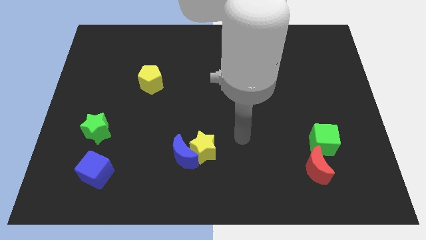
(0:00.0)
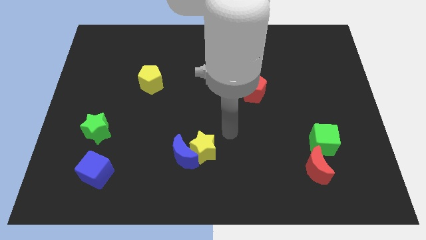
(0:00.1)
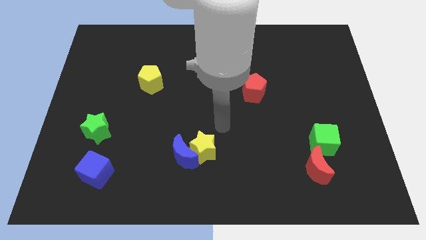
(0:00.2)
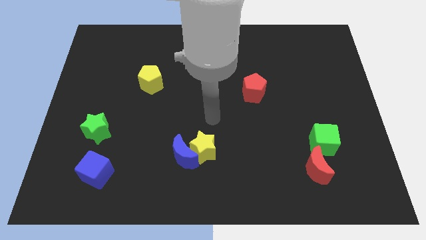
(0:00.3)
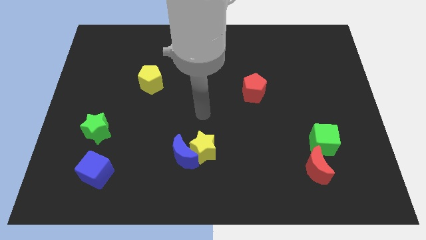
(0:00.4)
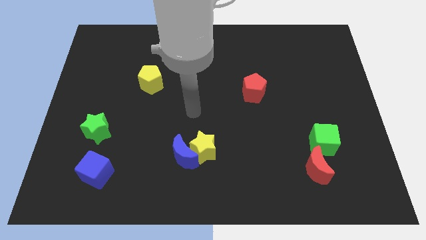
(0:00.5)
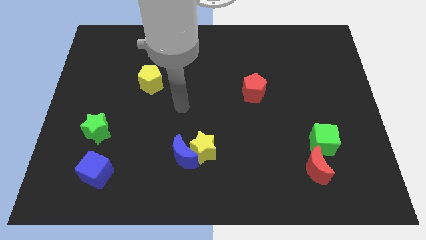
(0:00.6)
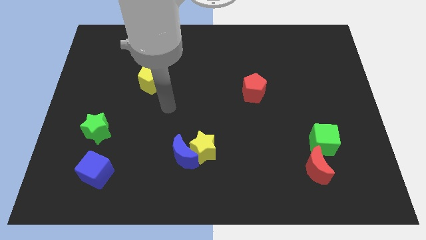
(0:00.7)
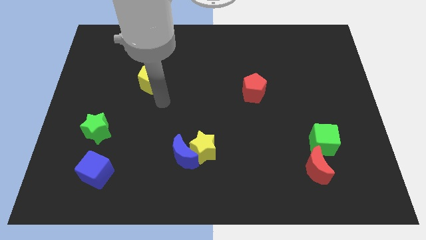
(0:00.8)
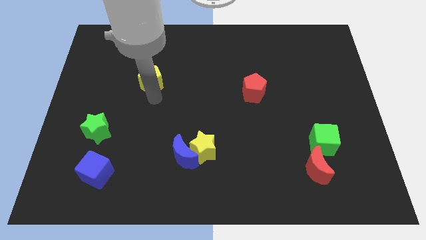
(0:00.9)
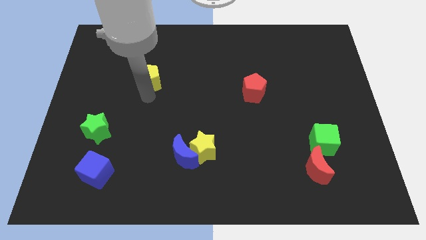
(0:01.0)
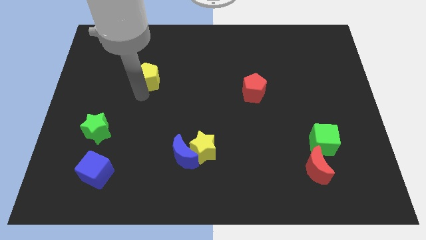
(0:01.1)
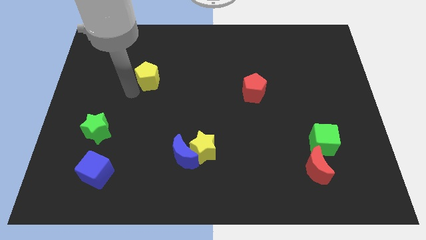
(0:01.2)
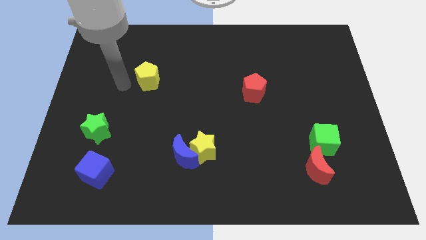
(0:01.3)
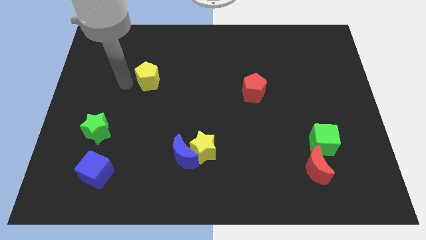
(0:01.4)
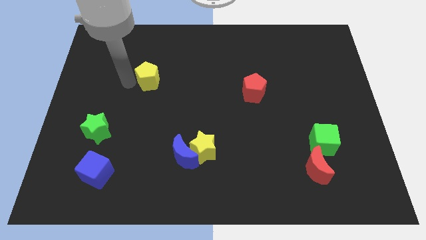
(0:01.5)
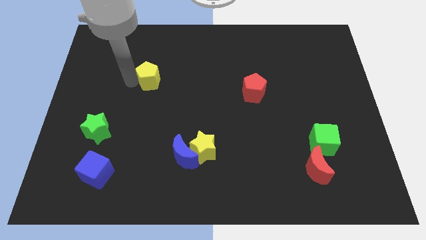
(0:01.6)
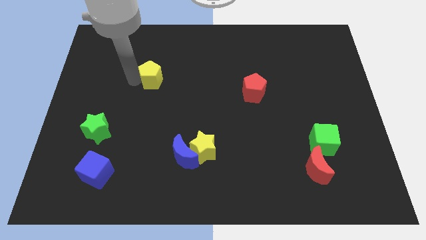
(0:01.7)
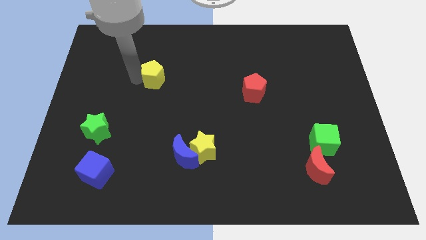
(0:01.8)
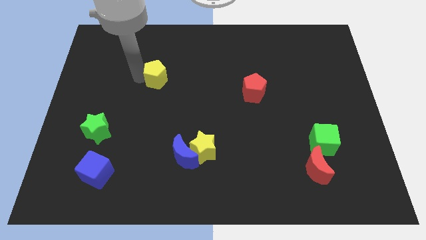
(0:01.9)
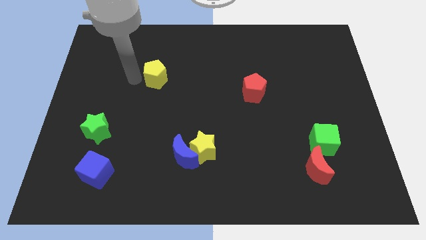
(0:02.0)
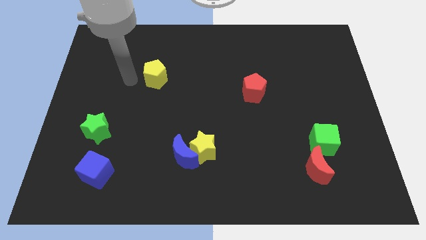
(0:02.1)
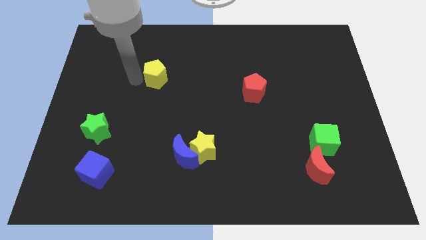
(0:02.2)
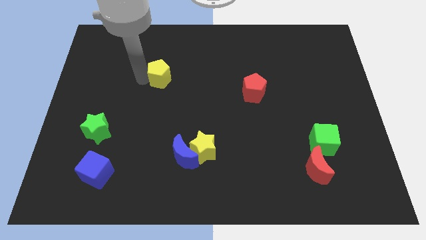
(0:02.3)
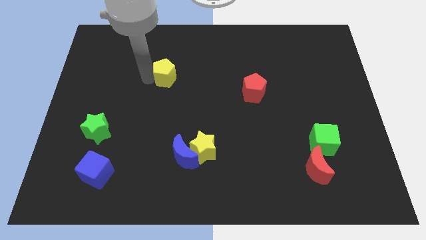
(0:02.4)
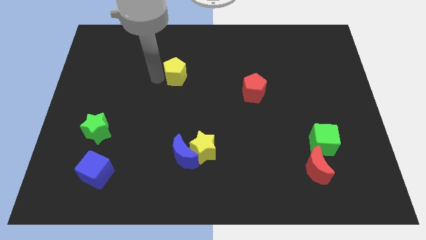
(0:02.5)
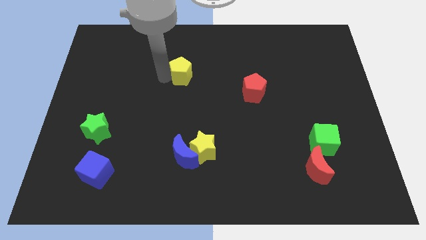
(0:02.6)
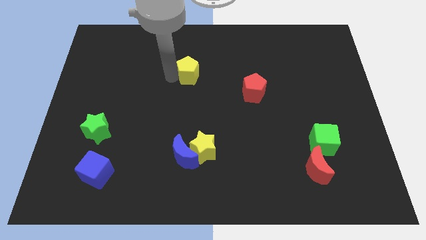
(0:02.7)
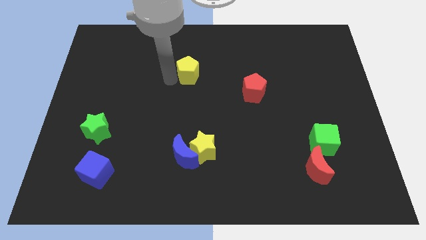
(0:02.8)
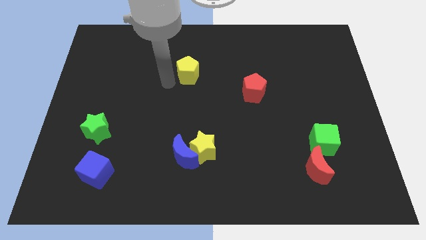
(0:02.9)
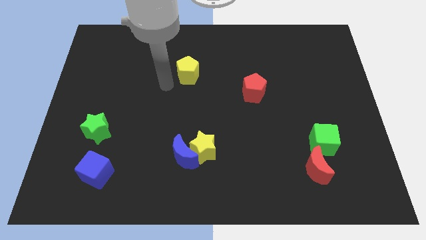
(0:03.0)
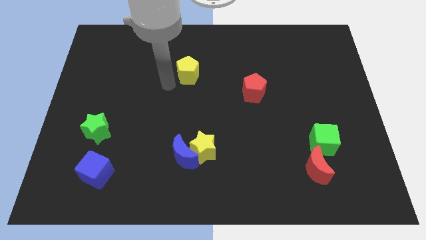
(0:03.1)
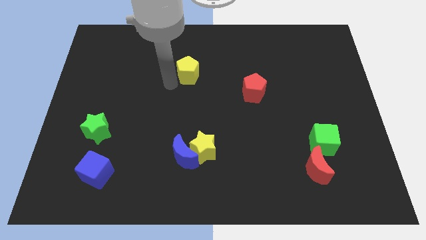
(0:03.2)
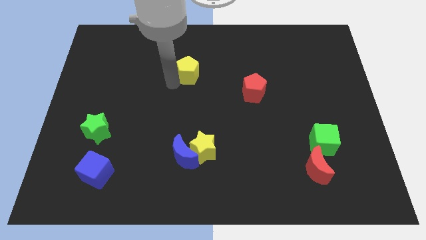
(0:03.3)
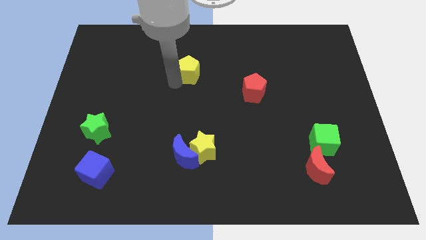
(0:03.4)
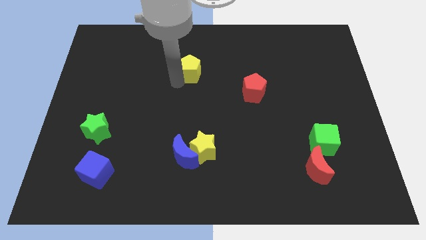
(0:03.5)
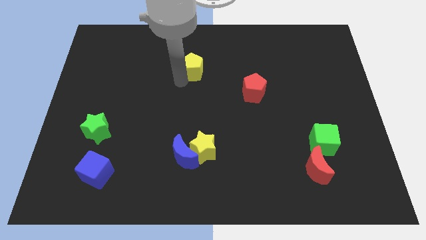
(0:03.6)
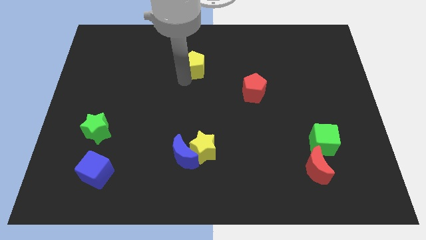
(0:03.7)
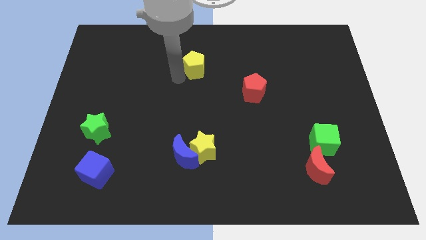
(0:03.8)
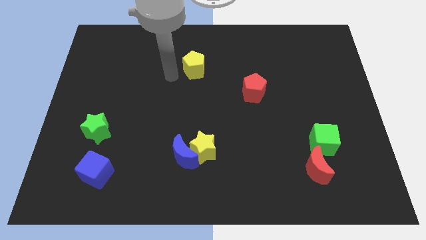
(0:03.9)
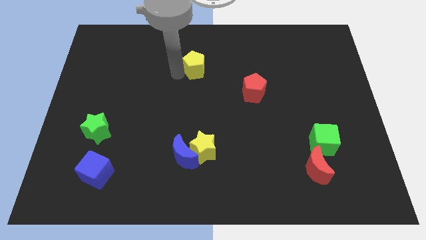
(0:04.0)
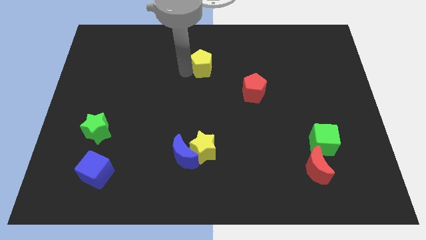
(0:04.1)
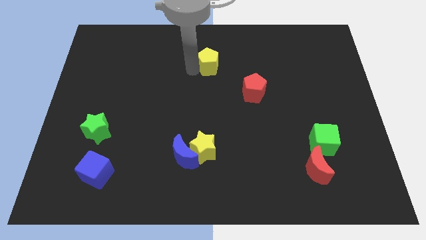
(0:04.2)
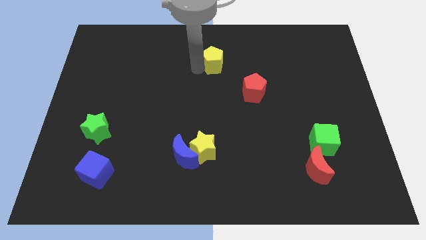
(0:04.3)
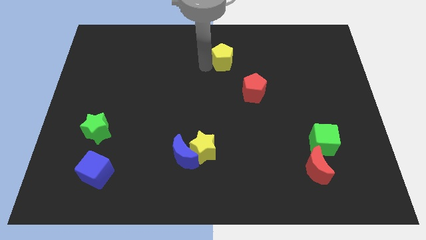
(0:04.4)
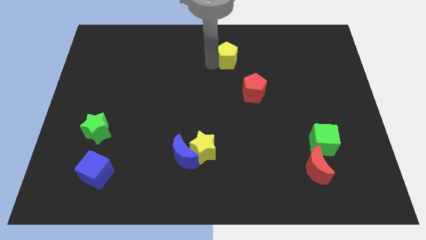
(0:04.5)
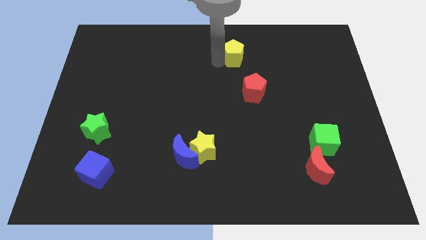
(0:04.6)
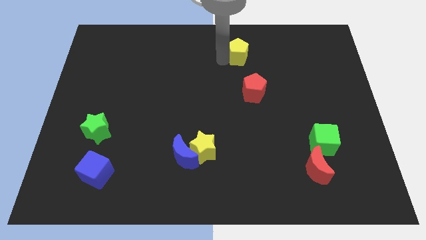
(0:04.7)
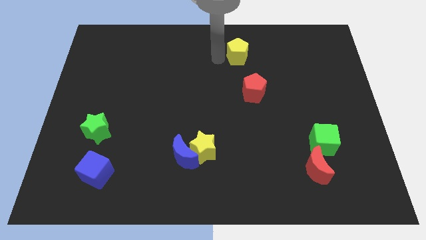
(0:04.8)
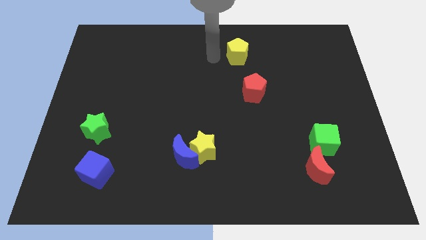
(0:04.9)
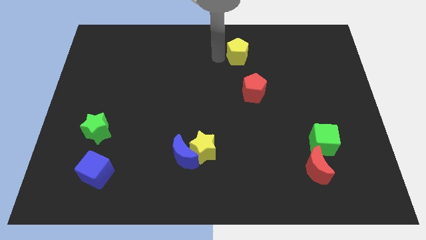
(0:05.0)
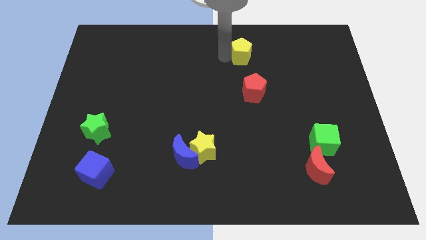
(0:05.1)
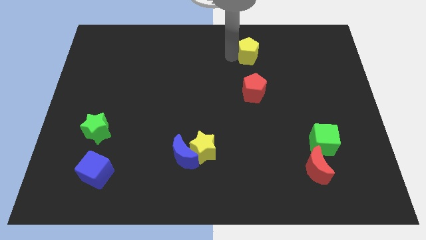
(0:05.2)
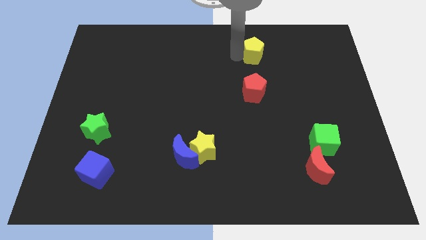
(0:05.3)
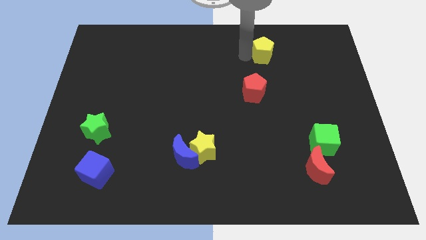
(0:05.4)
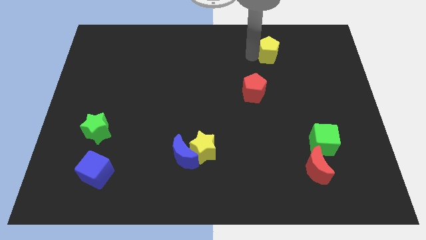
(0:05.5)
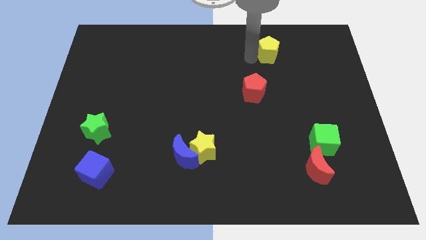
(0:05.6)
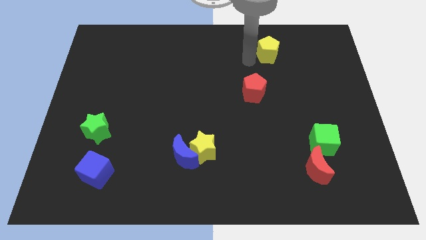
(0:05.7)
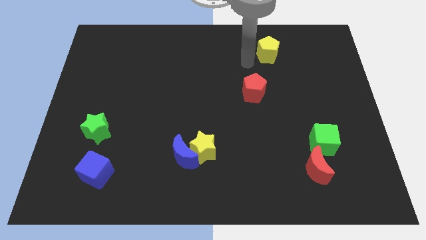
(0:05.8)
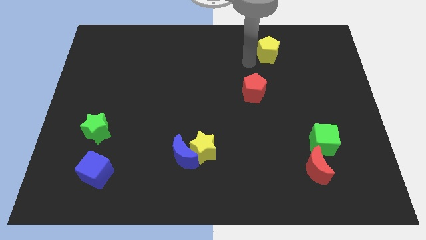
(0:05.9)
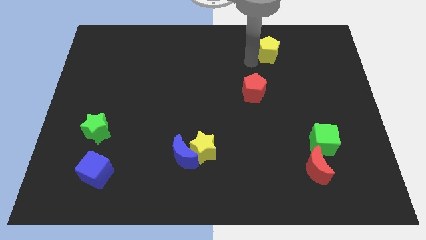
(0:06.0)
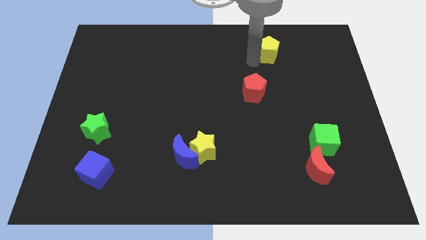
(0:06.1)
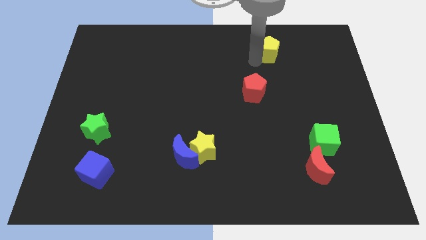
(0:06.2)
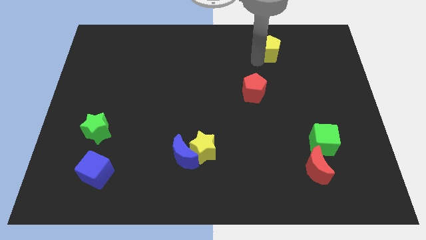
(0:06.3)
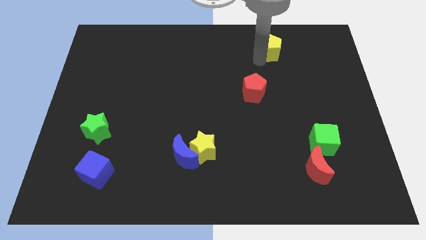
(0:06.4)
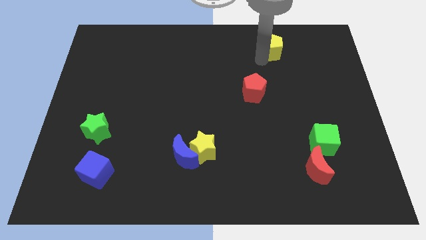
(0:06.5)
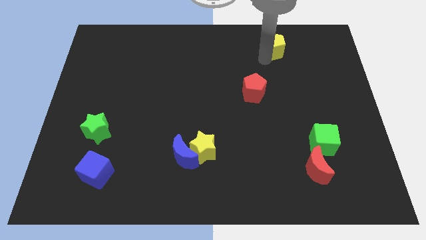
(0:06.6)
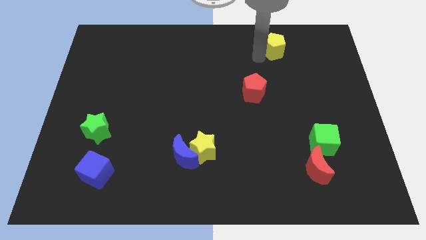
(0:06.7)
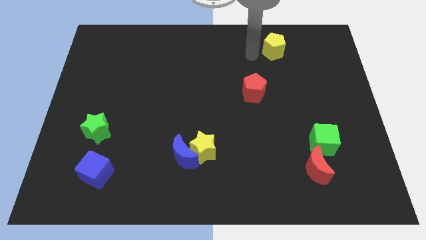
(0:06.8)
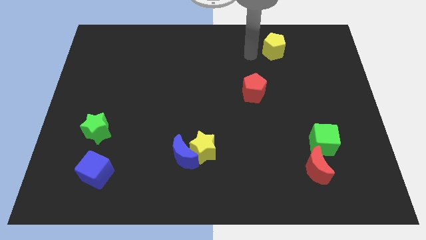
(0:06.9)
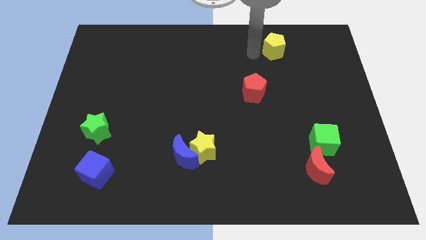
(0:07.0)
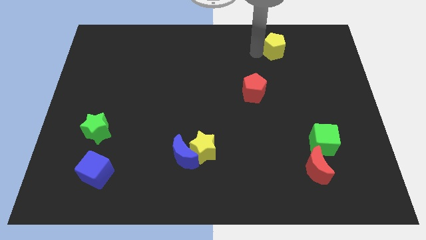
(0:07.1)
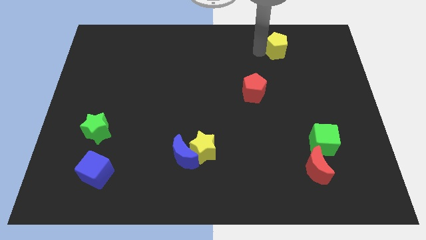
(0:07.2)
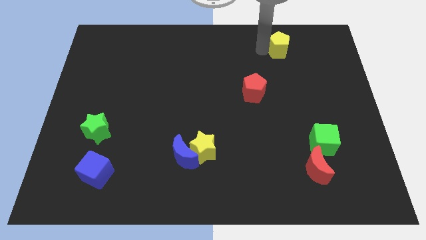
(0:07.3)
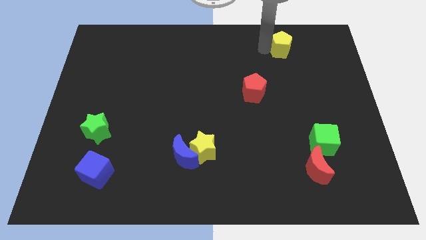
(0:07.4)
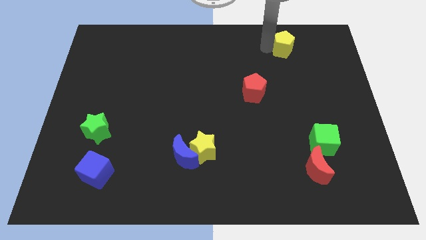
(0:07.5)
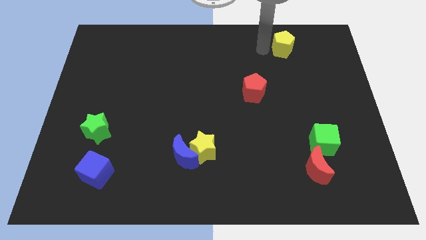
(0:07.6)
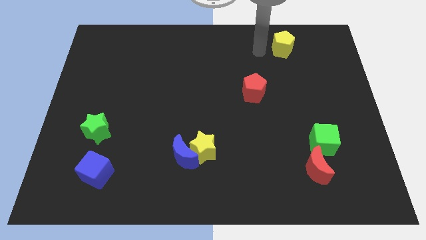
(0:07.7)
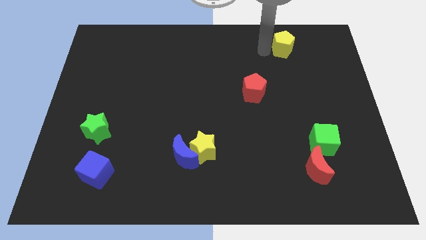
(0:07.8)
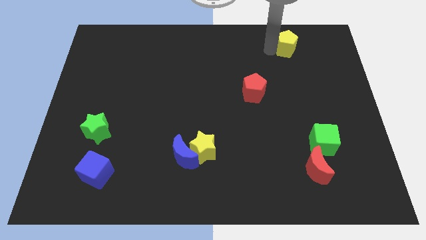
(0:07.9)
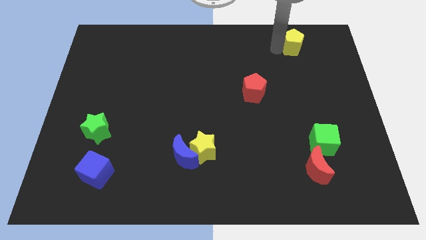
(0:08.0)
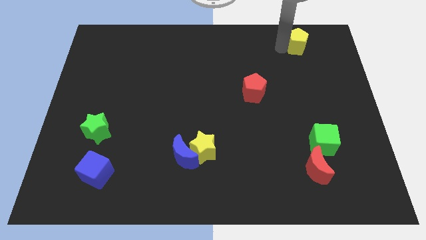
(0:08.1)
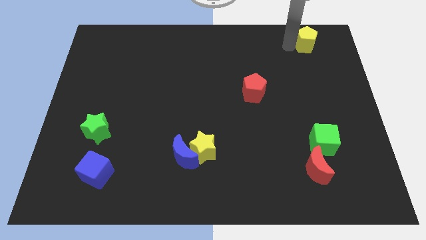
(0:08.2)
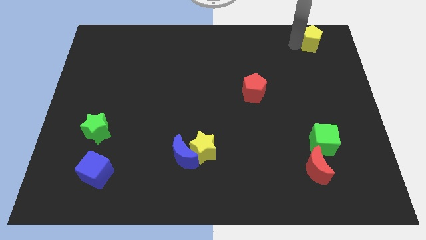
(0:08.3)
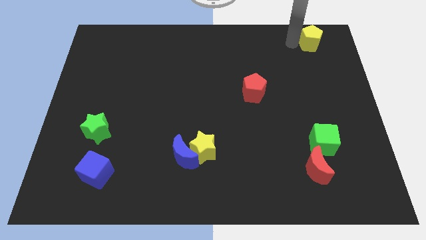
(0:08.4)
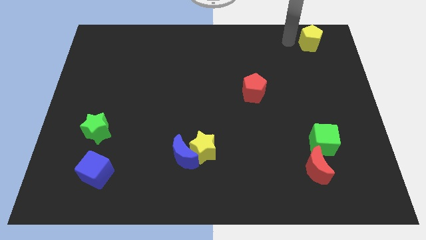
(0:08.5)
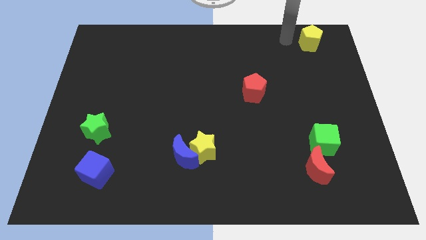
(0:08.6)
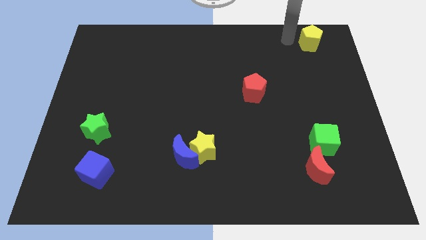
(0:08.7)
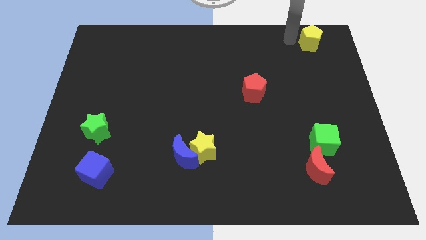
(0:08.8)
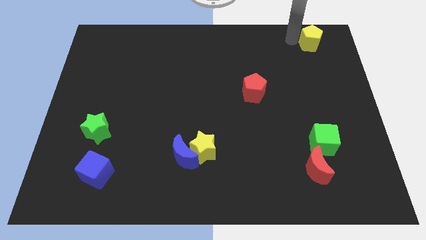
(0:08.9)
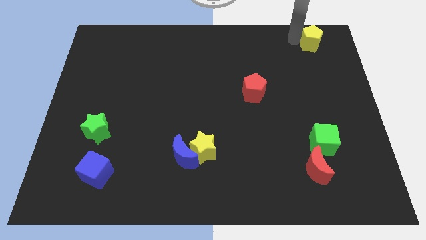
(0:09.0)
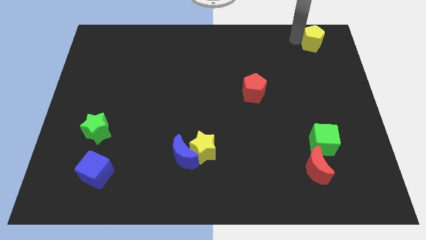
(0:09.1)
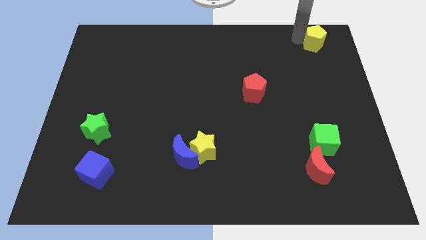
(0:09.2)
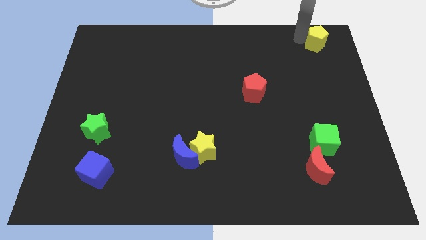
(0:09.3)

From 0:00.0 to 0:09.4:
move the yellow pentagon to the top right
